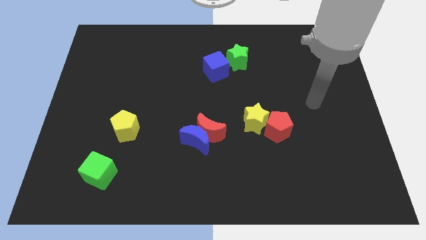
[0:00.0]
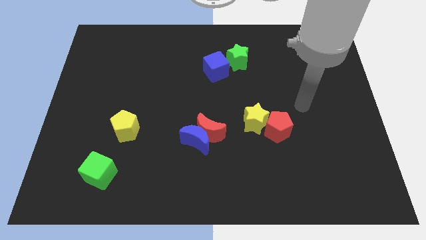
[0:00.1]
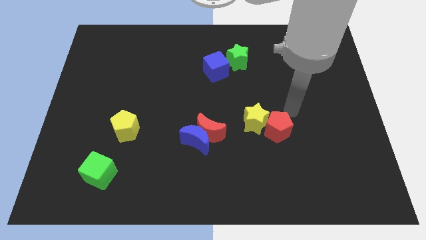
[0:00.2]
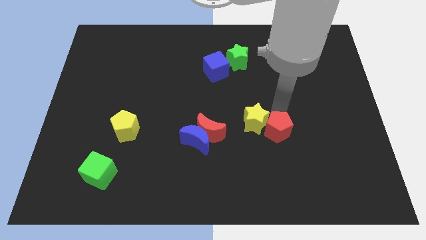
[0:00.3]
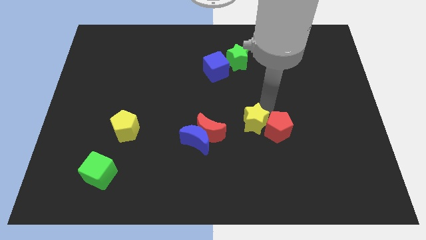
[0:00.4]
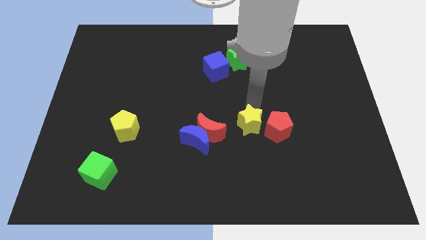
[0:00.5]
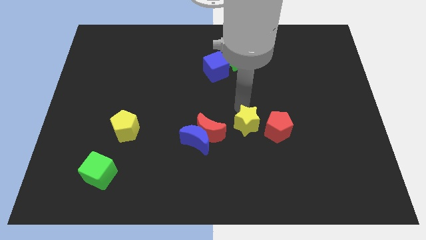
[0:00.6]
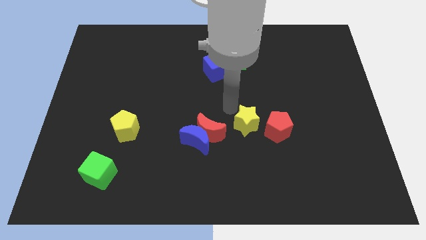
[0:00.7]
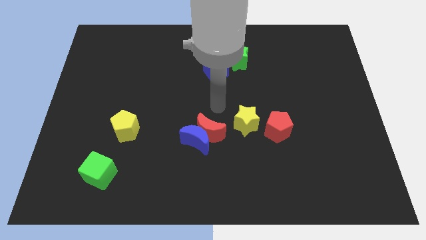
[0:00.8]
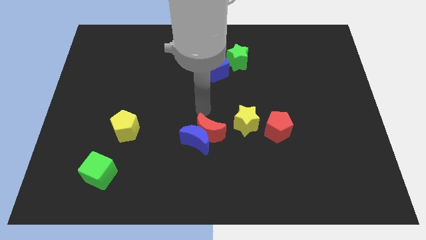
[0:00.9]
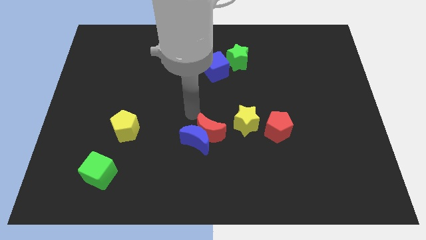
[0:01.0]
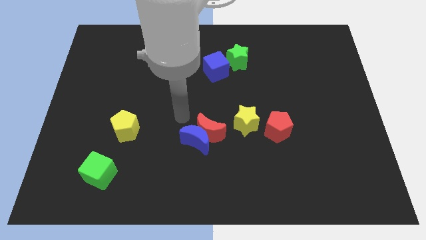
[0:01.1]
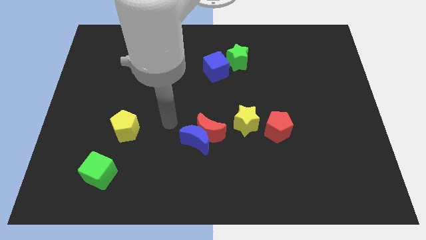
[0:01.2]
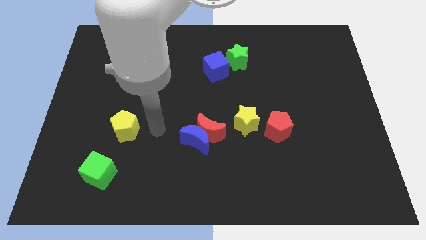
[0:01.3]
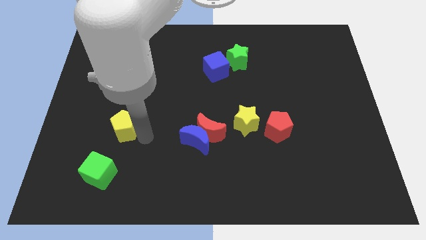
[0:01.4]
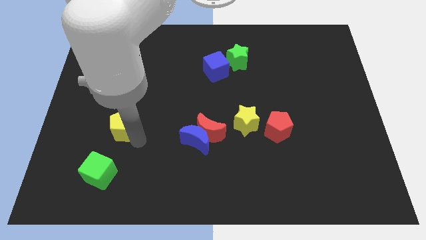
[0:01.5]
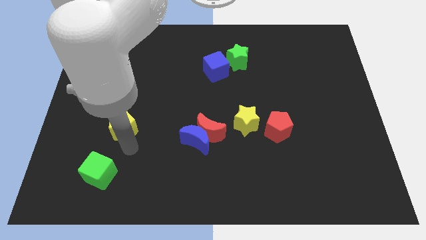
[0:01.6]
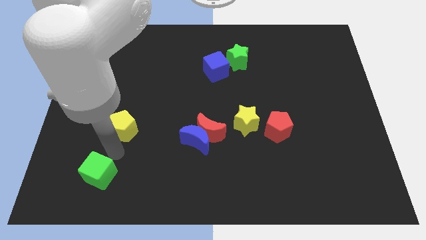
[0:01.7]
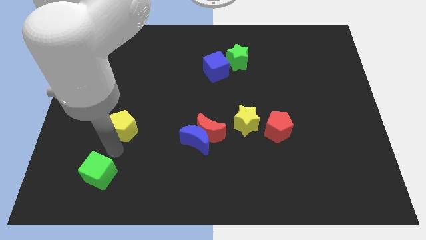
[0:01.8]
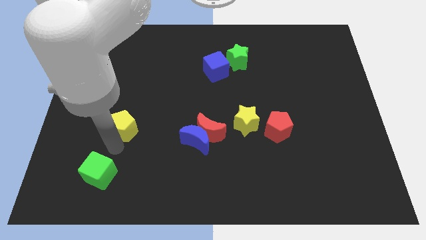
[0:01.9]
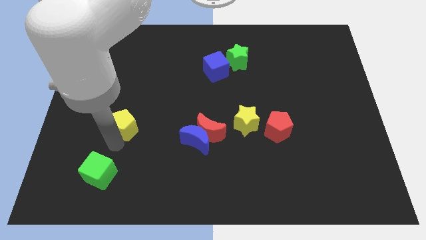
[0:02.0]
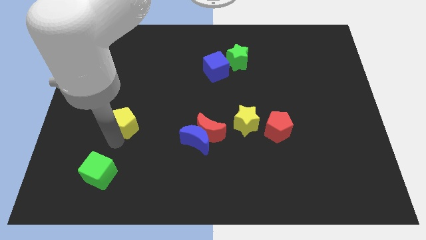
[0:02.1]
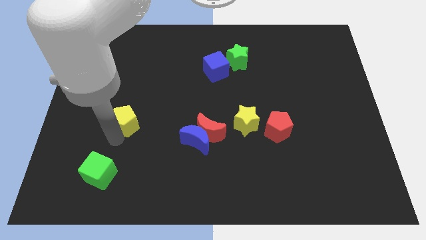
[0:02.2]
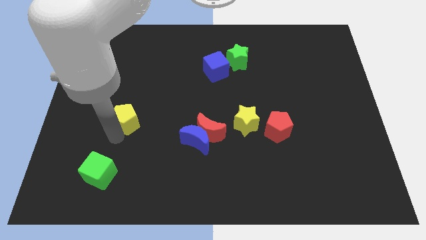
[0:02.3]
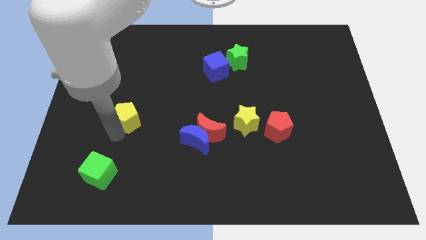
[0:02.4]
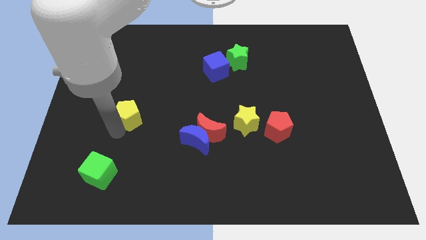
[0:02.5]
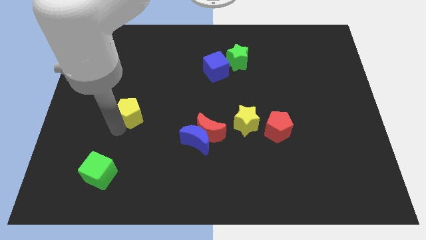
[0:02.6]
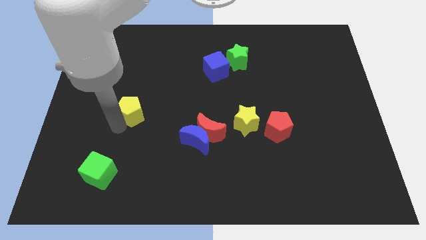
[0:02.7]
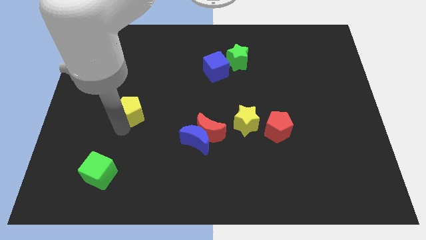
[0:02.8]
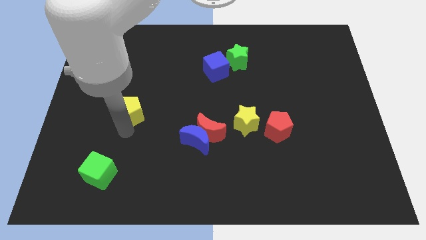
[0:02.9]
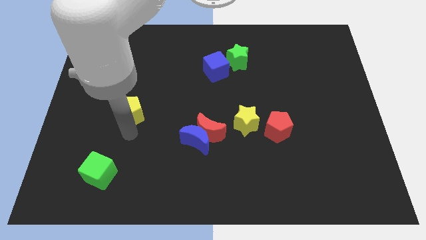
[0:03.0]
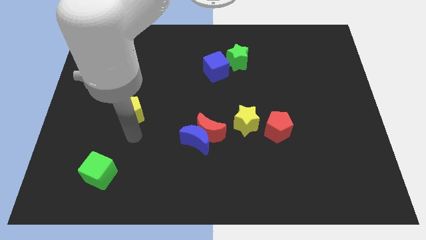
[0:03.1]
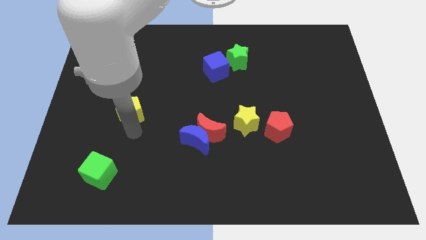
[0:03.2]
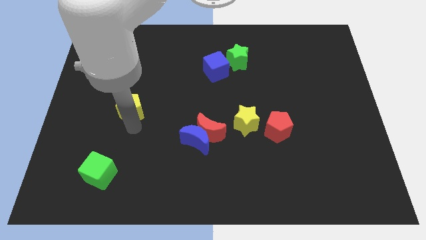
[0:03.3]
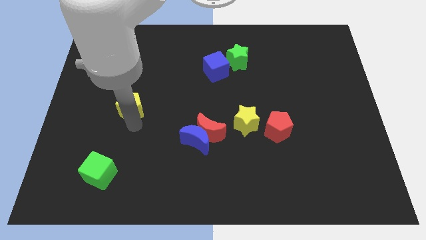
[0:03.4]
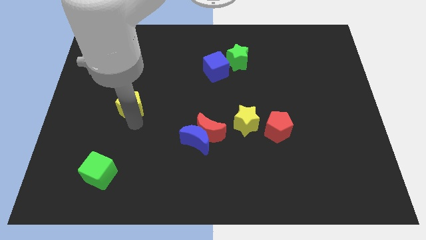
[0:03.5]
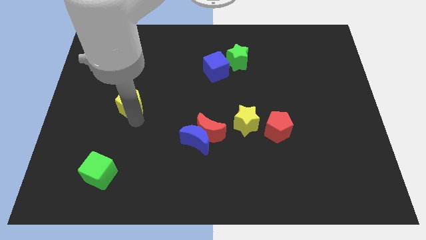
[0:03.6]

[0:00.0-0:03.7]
push the yellow pentagon up a bit

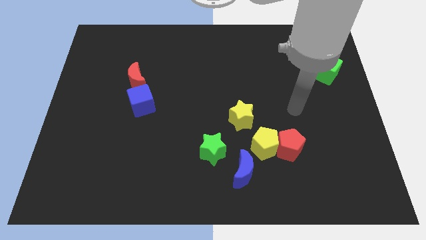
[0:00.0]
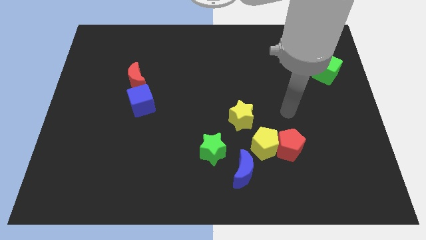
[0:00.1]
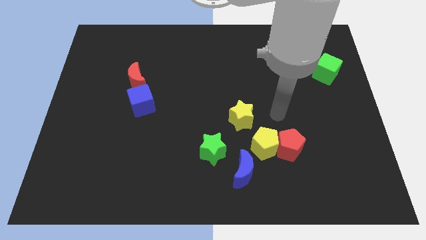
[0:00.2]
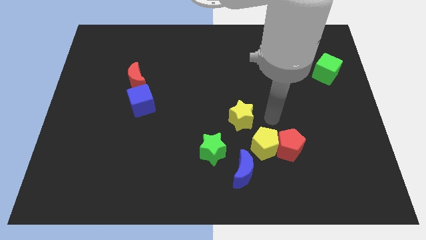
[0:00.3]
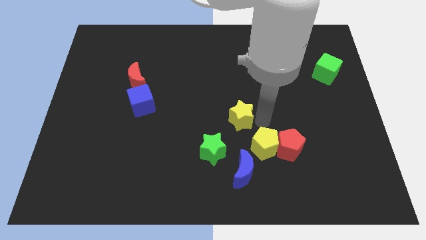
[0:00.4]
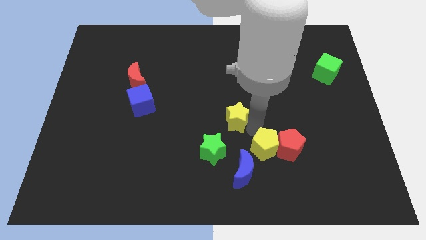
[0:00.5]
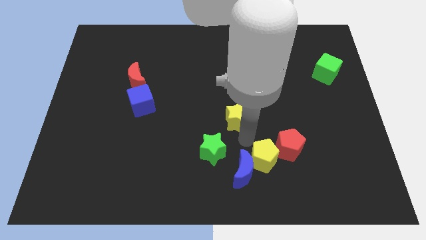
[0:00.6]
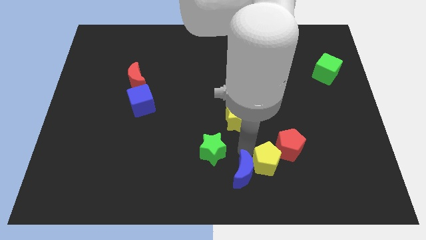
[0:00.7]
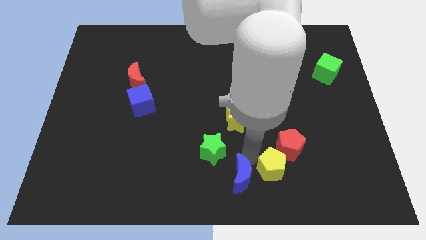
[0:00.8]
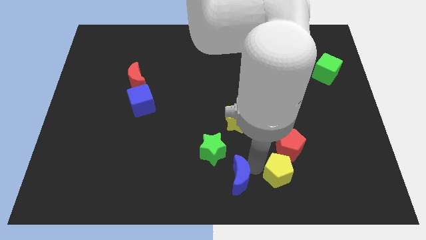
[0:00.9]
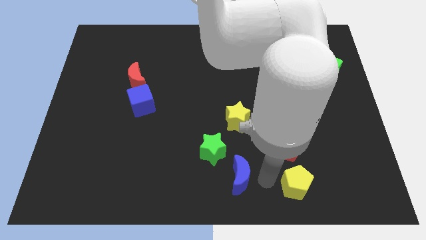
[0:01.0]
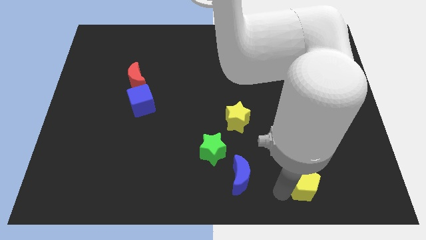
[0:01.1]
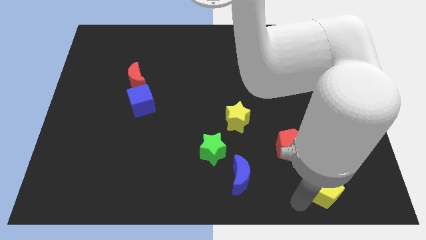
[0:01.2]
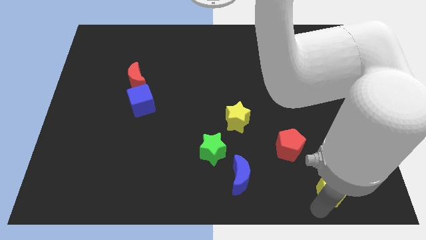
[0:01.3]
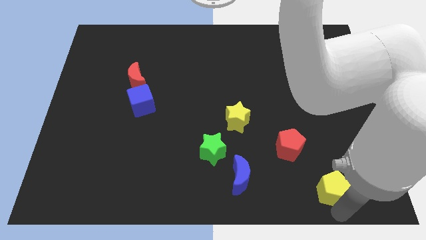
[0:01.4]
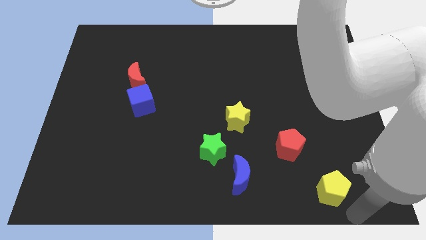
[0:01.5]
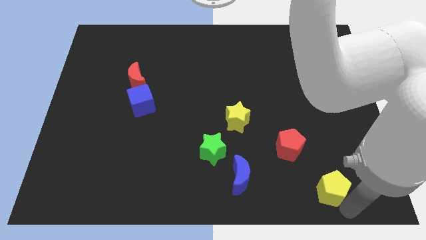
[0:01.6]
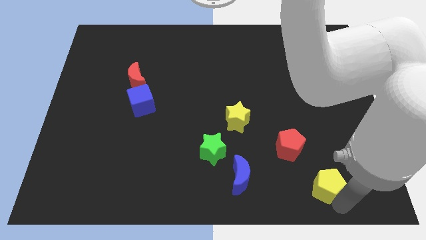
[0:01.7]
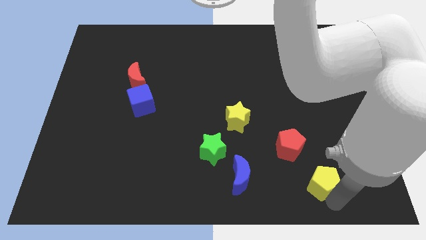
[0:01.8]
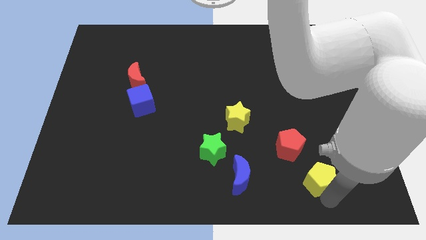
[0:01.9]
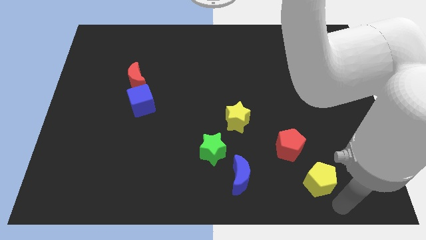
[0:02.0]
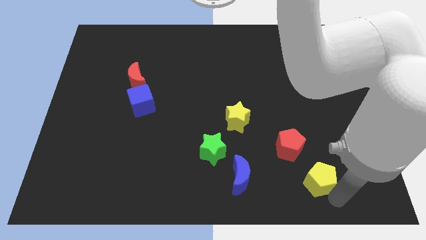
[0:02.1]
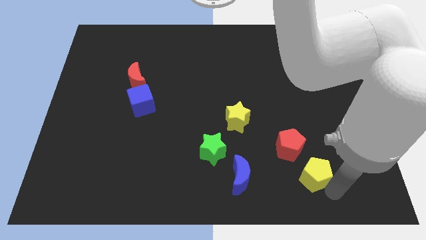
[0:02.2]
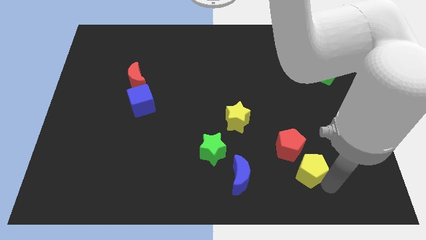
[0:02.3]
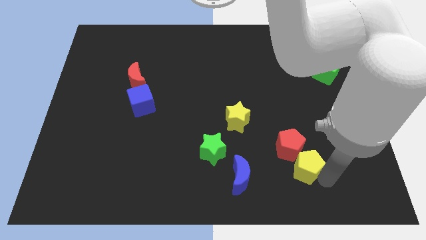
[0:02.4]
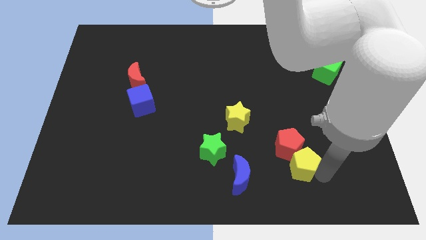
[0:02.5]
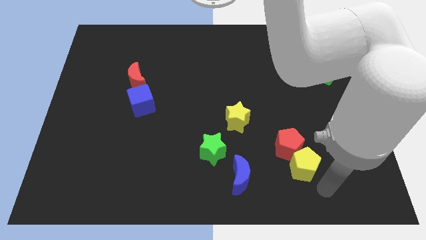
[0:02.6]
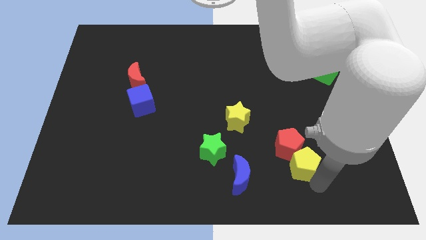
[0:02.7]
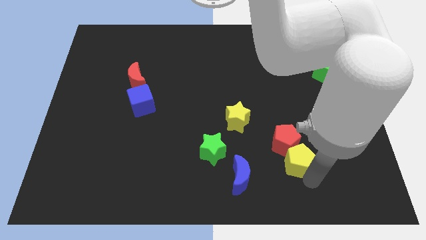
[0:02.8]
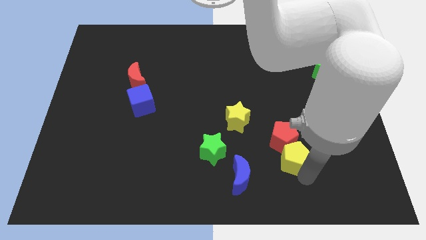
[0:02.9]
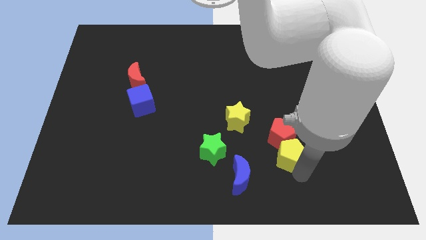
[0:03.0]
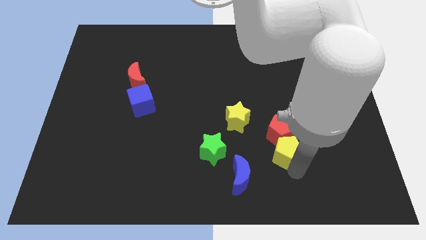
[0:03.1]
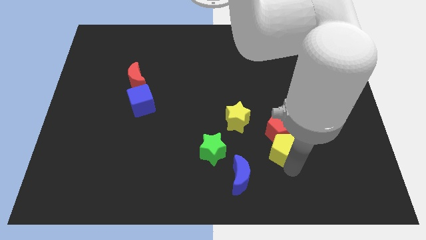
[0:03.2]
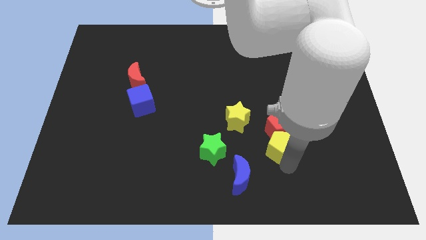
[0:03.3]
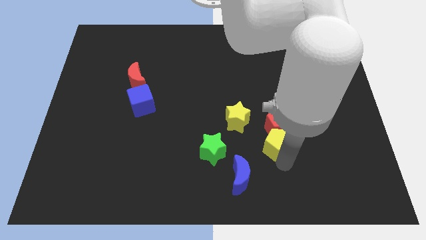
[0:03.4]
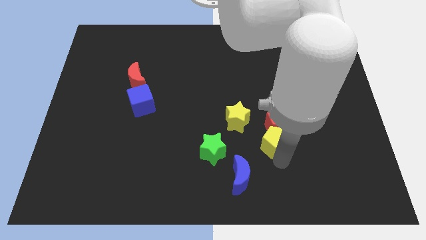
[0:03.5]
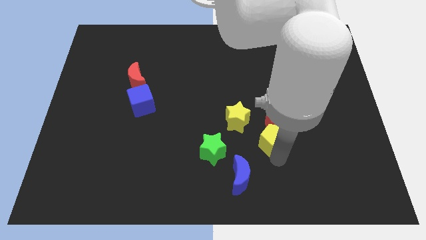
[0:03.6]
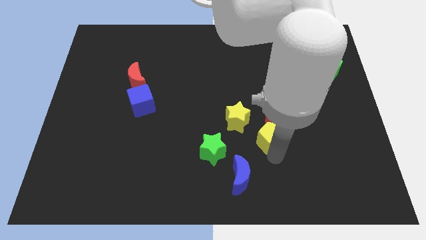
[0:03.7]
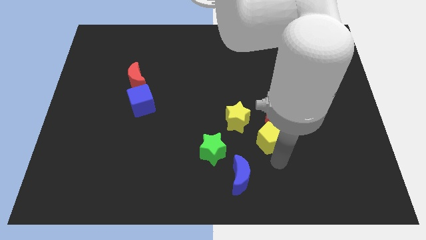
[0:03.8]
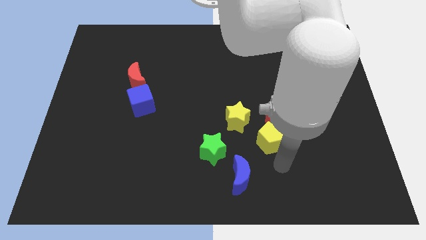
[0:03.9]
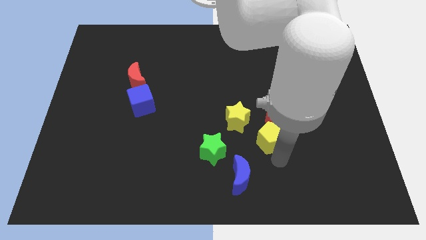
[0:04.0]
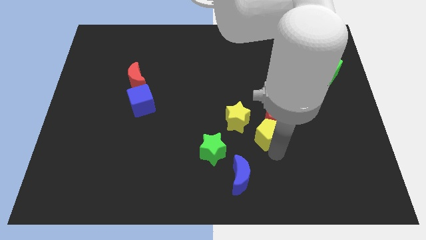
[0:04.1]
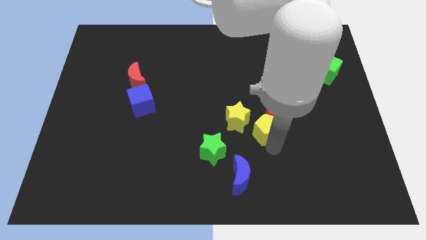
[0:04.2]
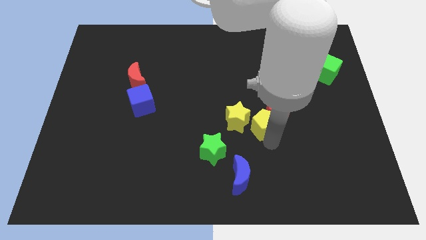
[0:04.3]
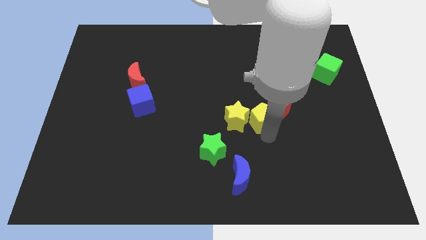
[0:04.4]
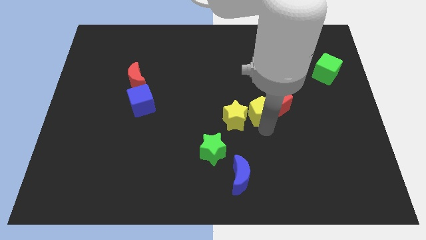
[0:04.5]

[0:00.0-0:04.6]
slide the yellow pentagon upwards a little bit

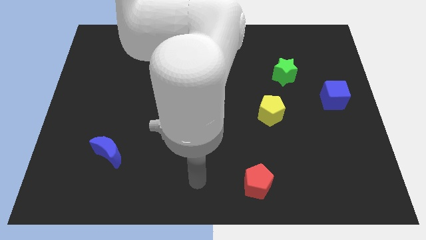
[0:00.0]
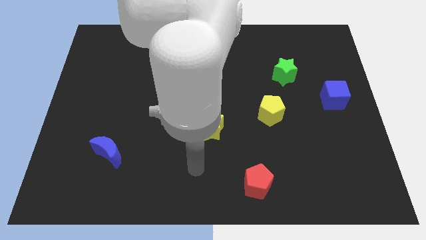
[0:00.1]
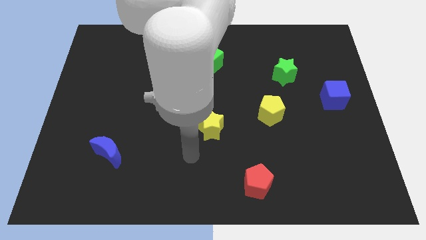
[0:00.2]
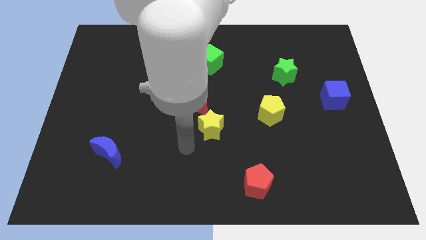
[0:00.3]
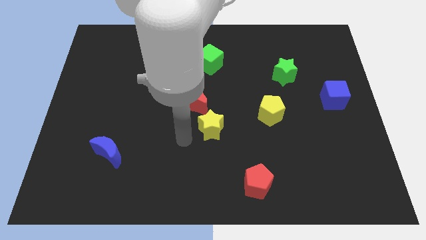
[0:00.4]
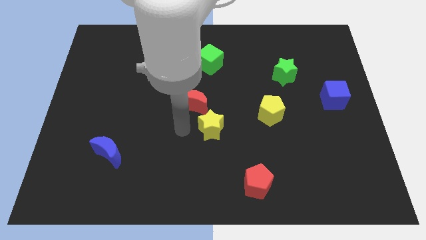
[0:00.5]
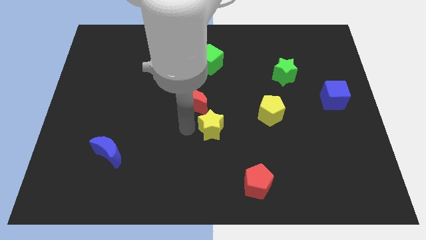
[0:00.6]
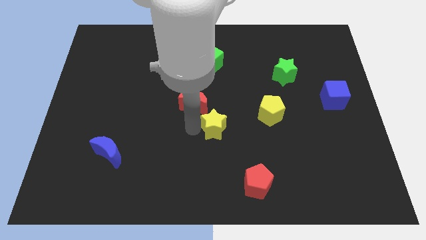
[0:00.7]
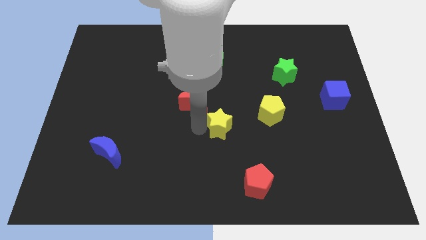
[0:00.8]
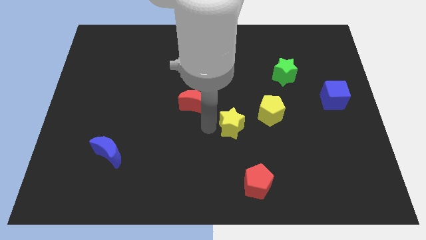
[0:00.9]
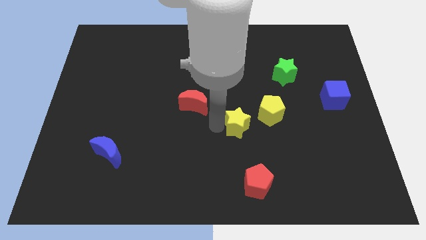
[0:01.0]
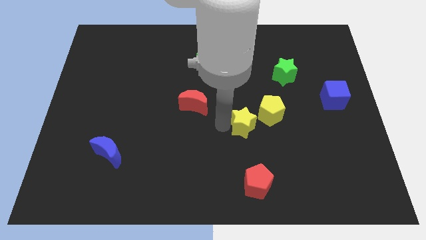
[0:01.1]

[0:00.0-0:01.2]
move the yellow star to the right a bit
